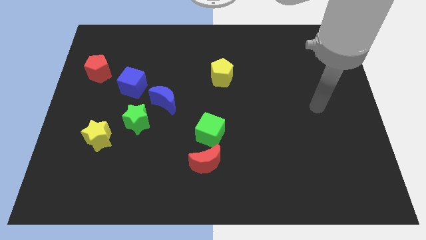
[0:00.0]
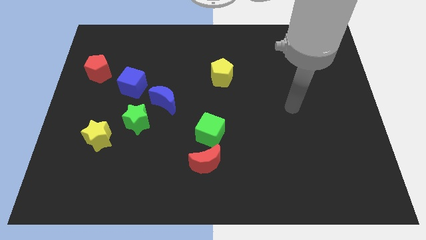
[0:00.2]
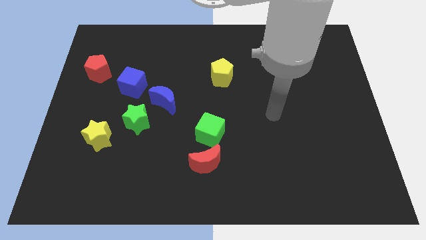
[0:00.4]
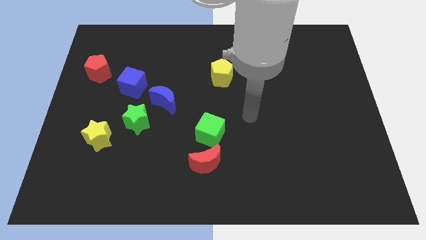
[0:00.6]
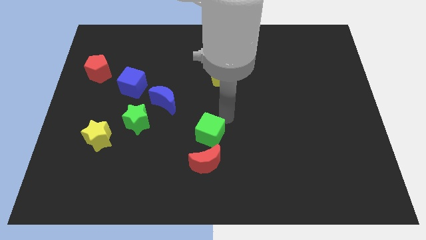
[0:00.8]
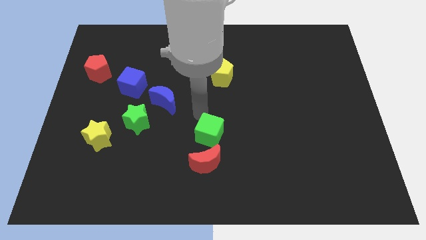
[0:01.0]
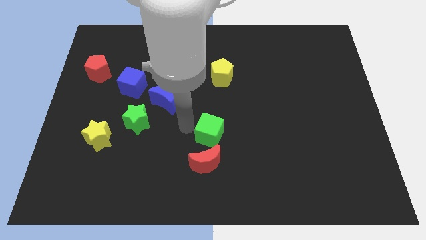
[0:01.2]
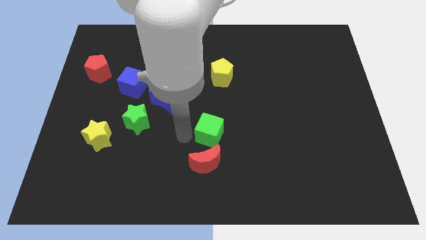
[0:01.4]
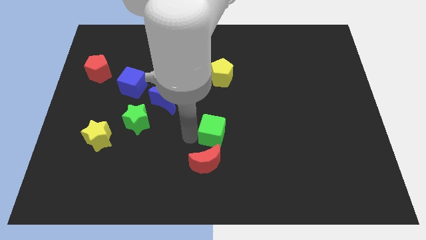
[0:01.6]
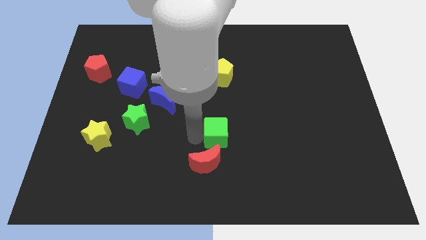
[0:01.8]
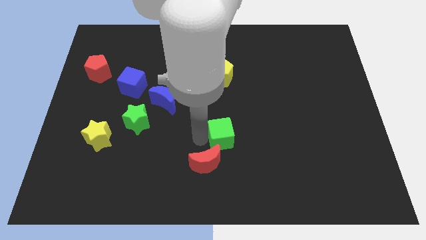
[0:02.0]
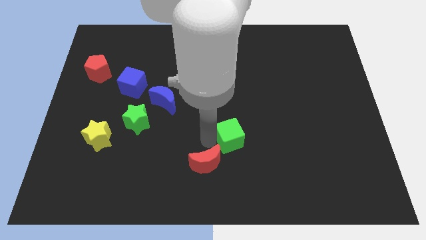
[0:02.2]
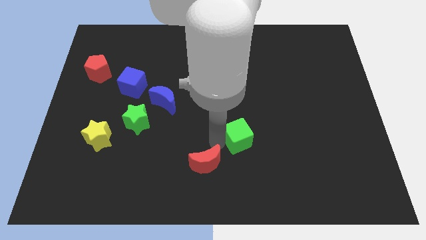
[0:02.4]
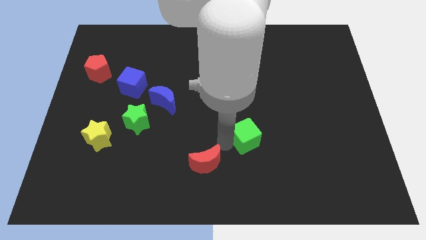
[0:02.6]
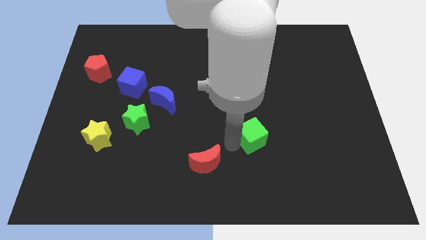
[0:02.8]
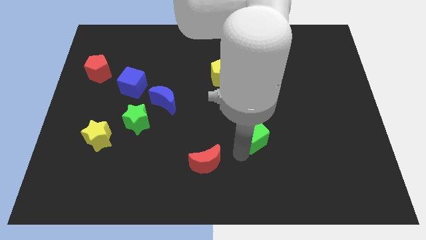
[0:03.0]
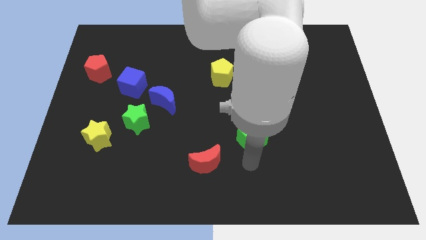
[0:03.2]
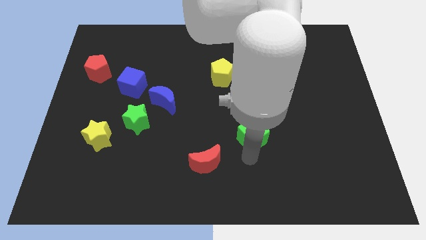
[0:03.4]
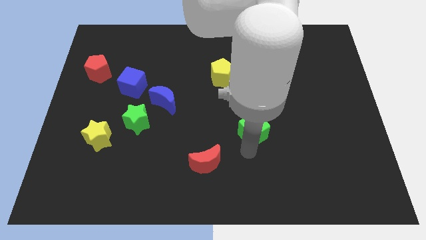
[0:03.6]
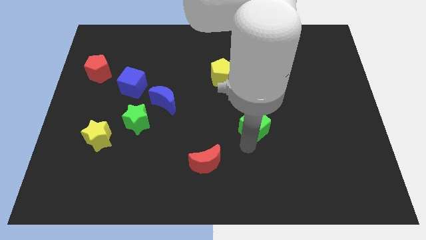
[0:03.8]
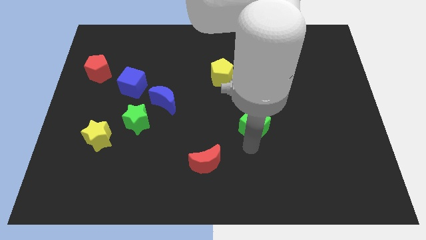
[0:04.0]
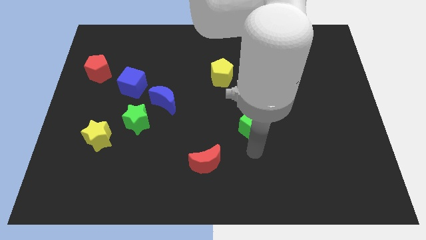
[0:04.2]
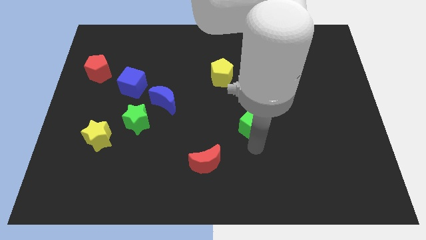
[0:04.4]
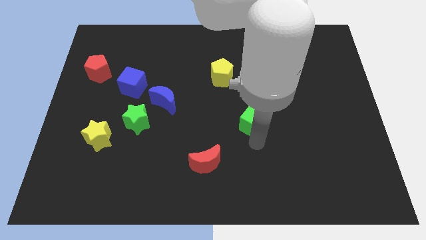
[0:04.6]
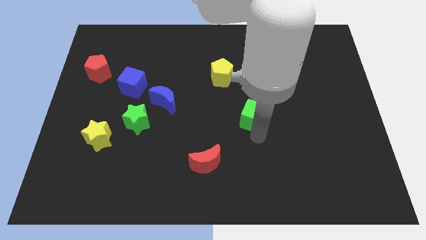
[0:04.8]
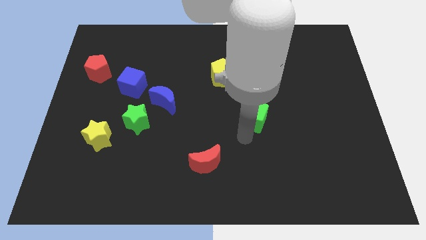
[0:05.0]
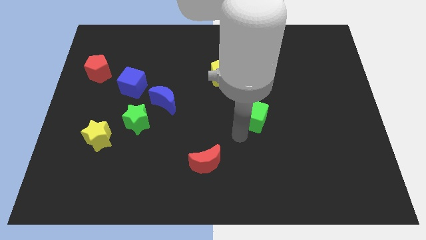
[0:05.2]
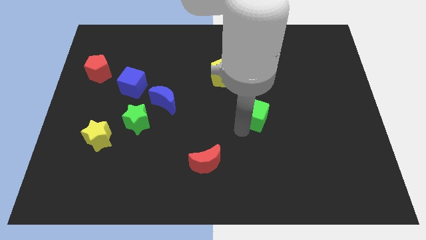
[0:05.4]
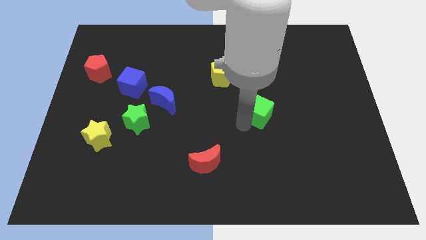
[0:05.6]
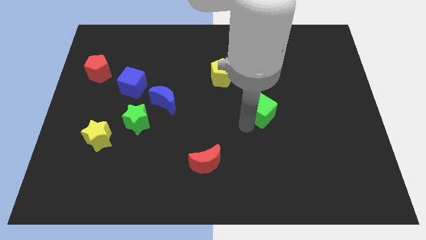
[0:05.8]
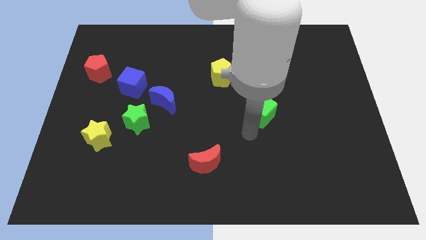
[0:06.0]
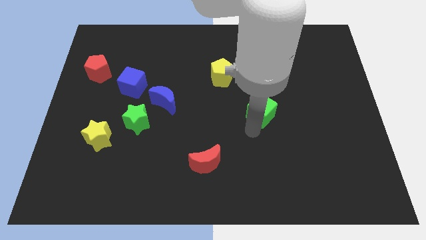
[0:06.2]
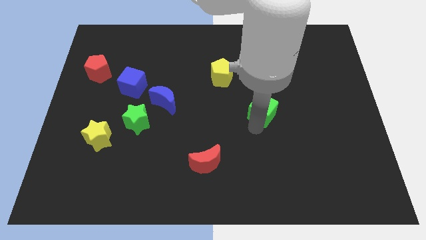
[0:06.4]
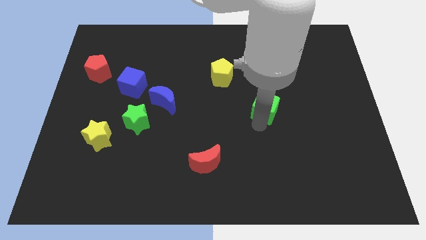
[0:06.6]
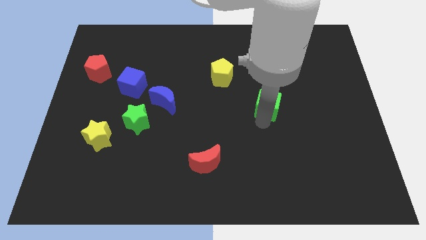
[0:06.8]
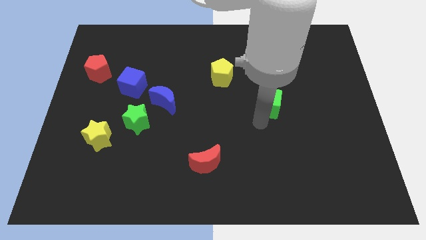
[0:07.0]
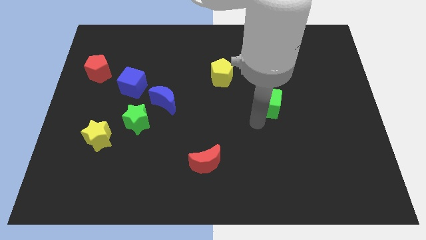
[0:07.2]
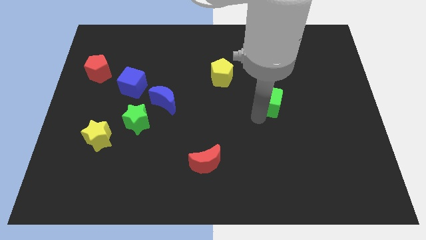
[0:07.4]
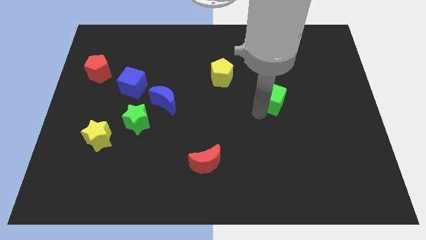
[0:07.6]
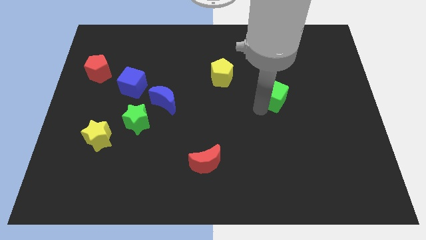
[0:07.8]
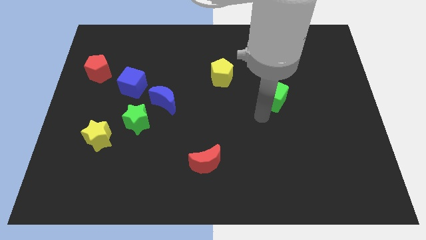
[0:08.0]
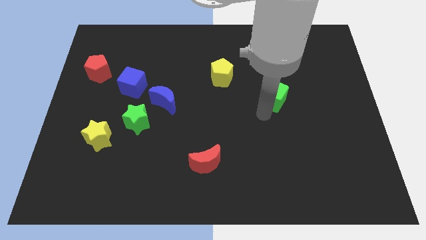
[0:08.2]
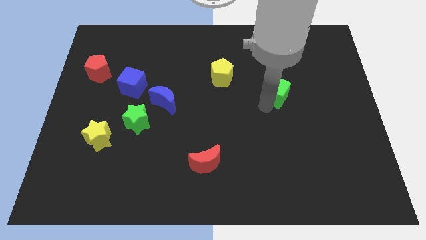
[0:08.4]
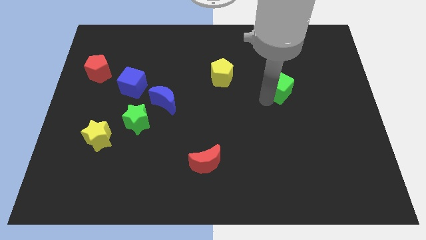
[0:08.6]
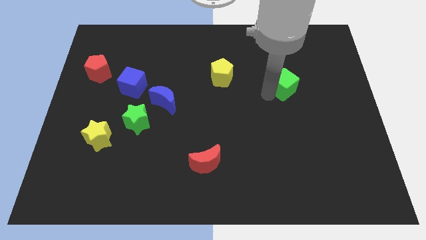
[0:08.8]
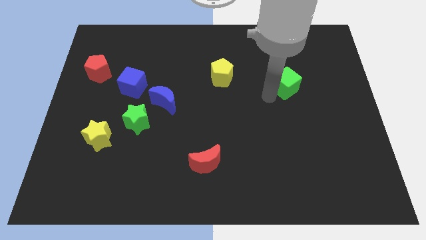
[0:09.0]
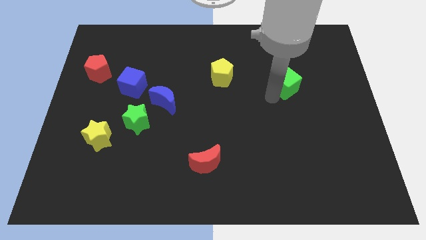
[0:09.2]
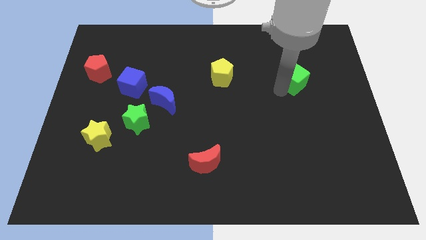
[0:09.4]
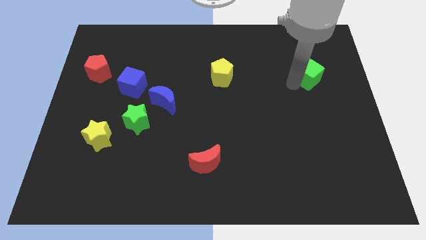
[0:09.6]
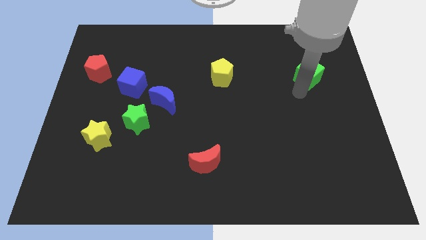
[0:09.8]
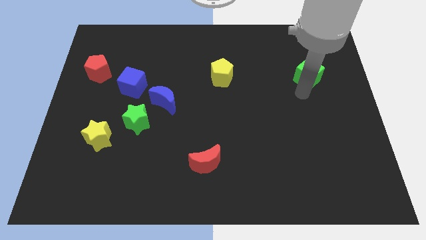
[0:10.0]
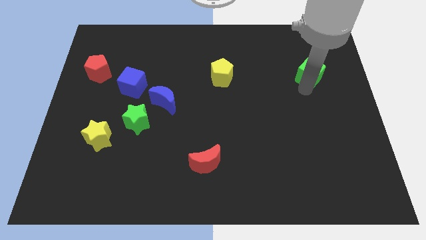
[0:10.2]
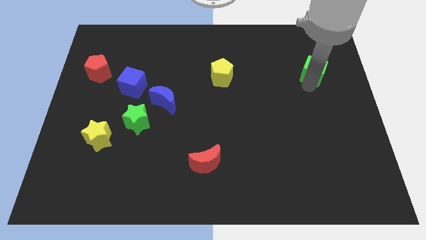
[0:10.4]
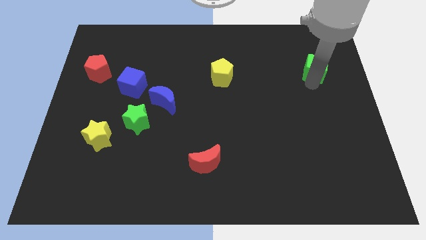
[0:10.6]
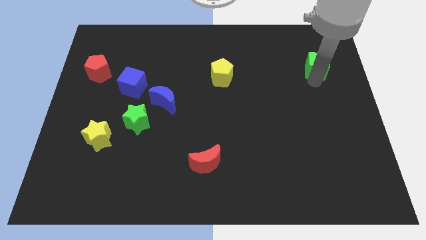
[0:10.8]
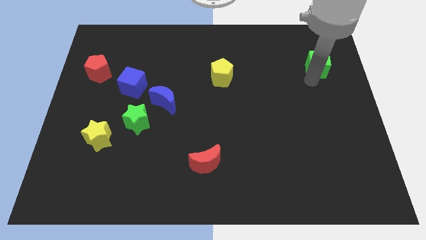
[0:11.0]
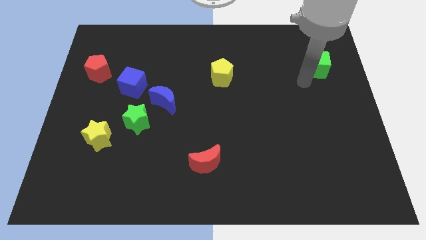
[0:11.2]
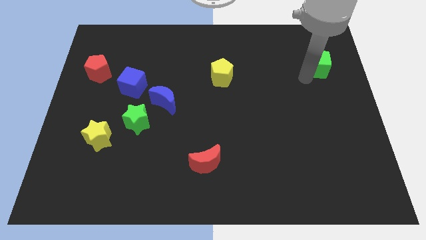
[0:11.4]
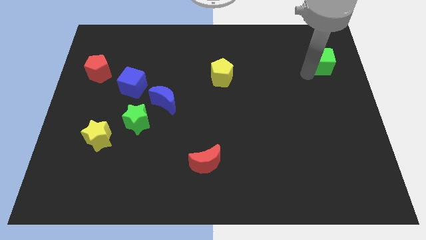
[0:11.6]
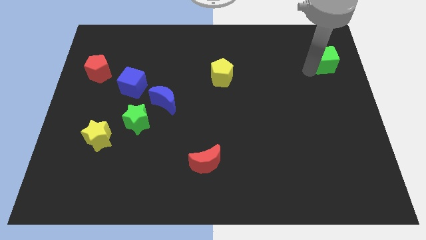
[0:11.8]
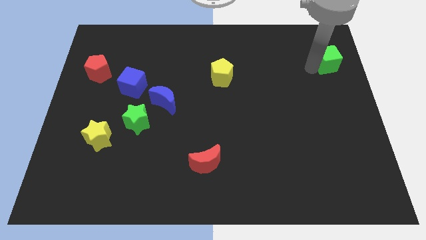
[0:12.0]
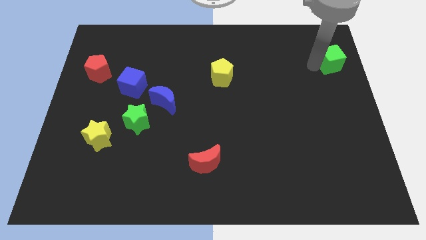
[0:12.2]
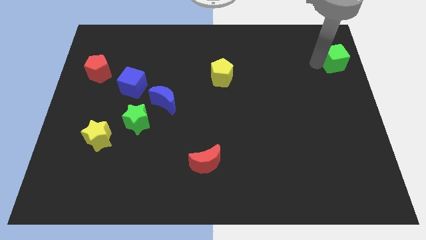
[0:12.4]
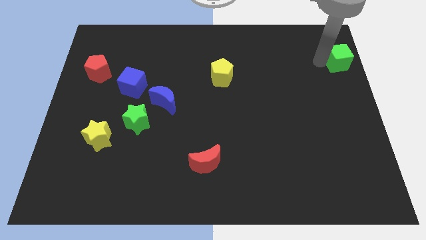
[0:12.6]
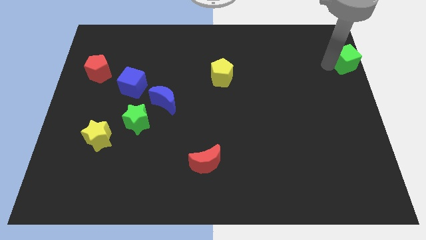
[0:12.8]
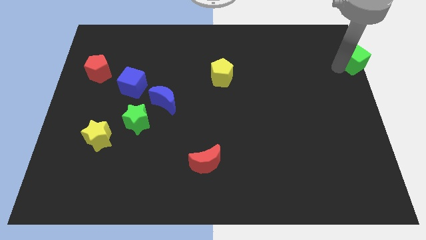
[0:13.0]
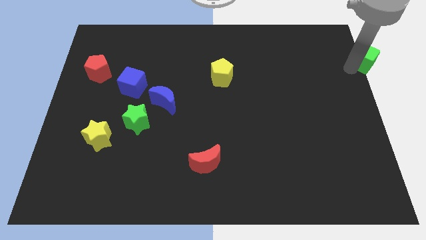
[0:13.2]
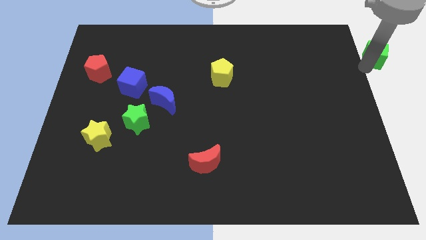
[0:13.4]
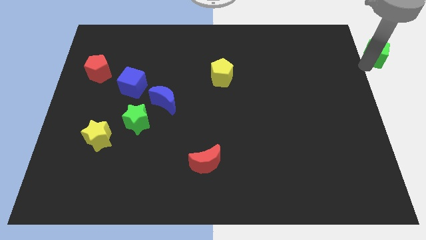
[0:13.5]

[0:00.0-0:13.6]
push the green cube to the top right
